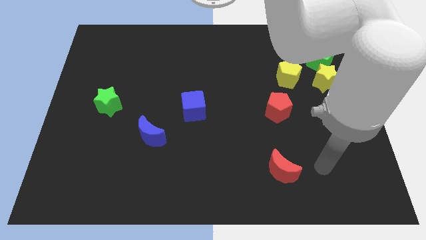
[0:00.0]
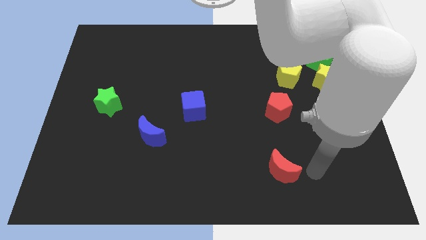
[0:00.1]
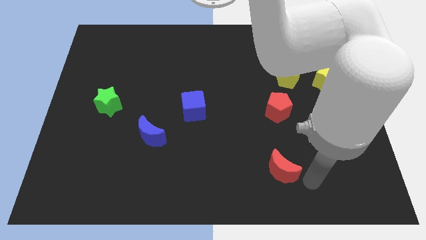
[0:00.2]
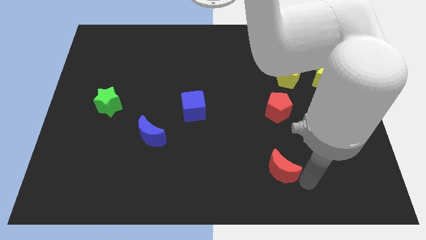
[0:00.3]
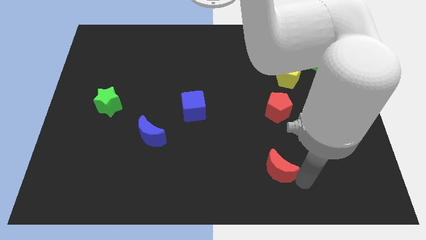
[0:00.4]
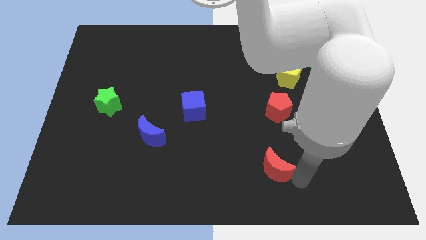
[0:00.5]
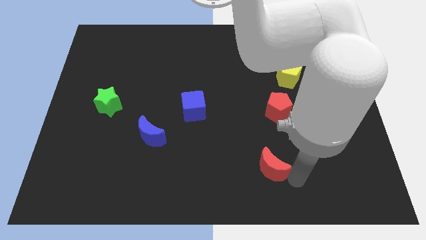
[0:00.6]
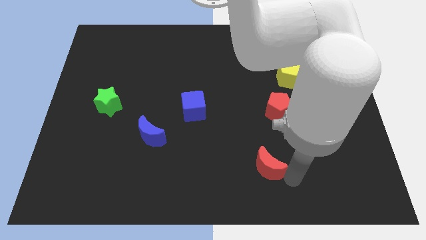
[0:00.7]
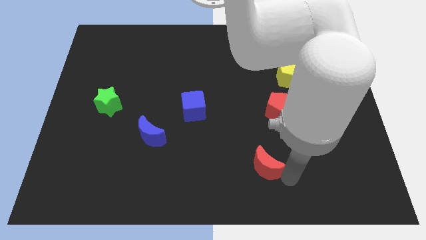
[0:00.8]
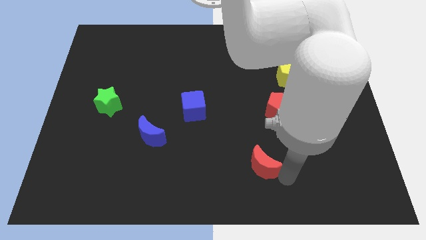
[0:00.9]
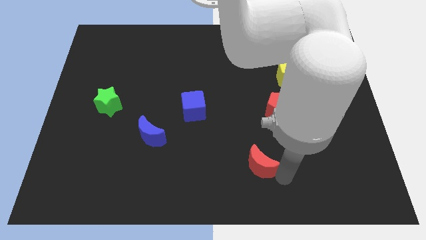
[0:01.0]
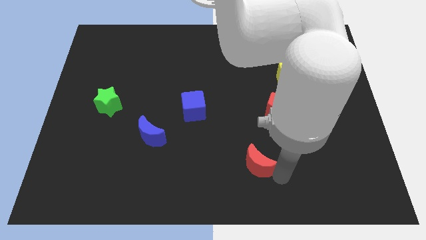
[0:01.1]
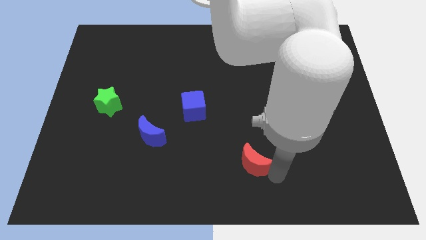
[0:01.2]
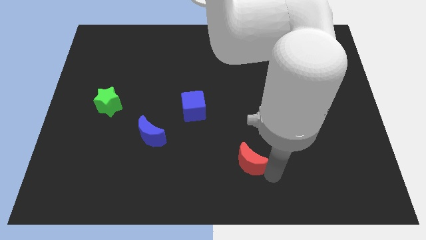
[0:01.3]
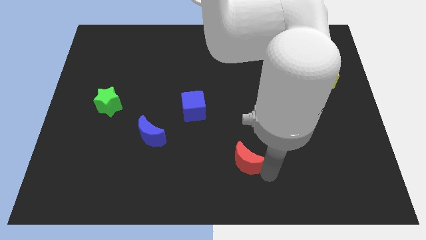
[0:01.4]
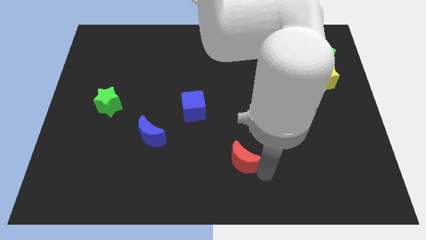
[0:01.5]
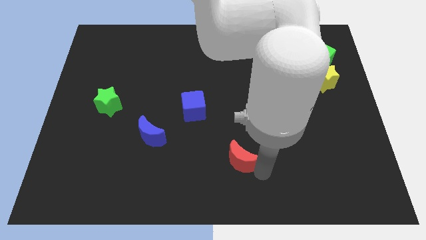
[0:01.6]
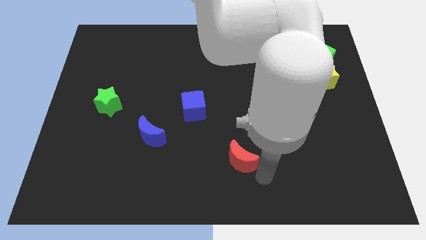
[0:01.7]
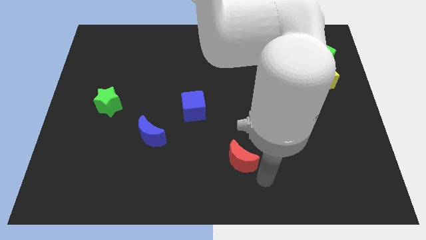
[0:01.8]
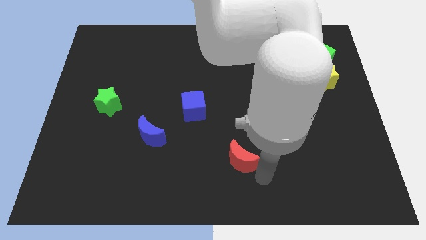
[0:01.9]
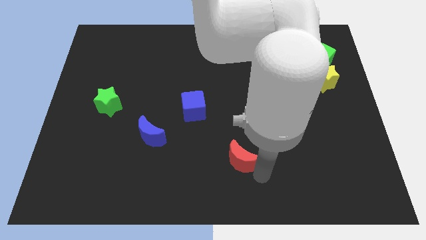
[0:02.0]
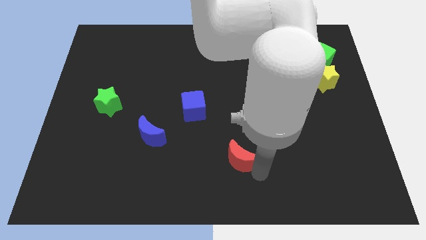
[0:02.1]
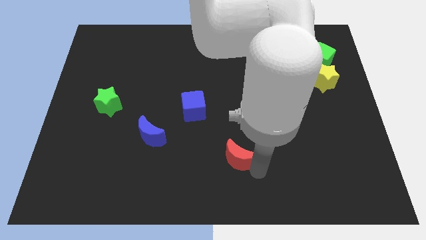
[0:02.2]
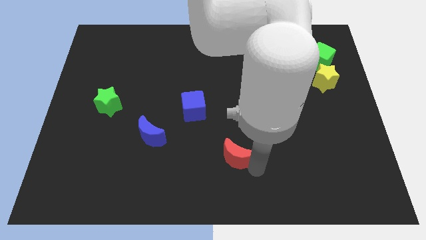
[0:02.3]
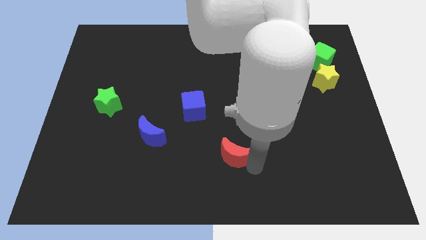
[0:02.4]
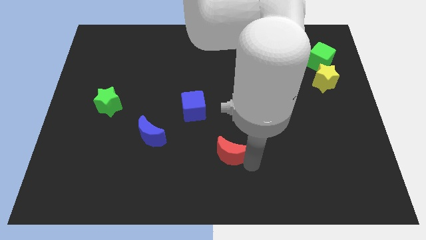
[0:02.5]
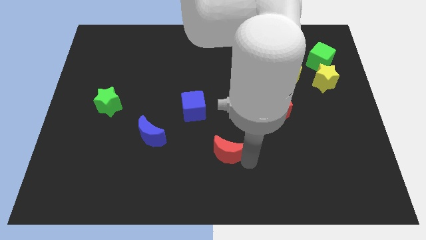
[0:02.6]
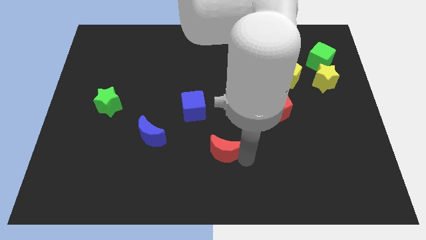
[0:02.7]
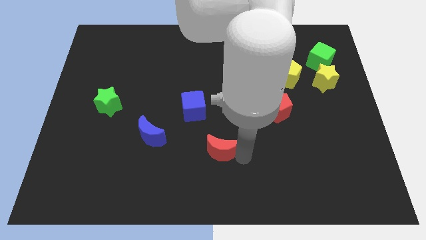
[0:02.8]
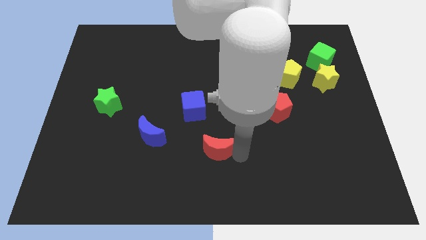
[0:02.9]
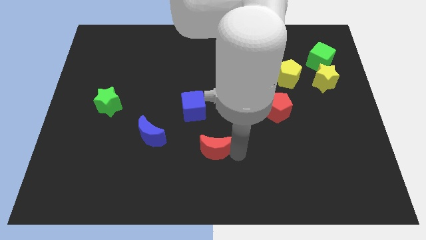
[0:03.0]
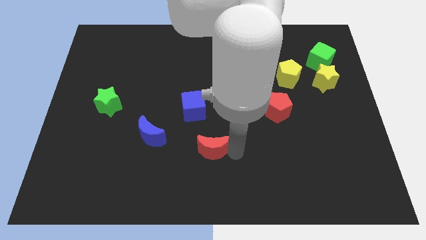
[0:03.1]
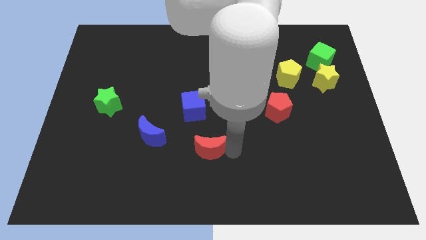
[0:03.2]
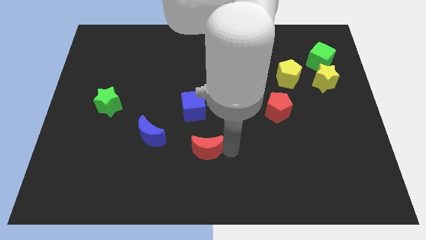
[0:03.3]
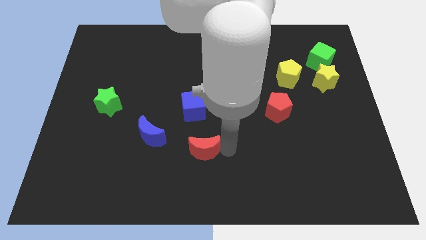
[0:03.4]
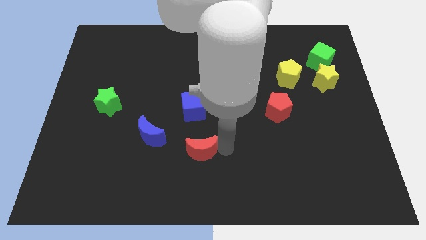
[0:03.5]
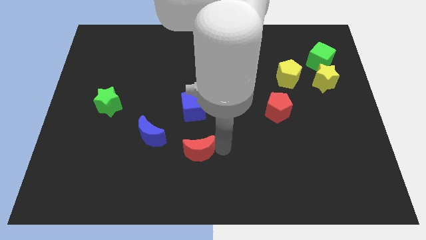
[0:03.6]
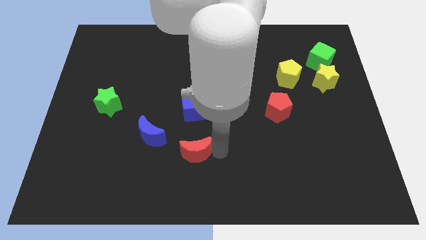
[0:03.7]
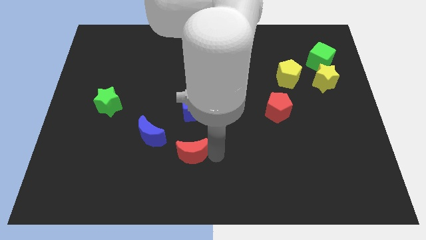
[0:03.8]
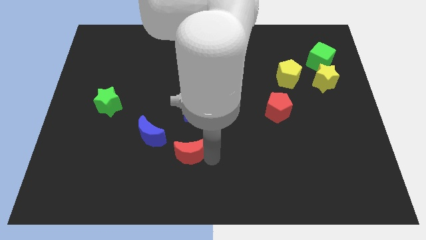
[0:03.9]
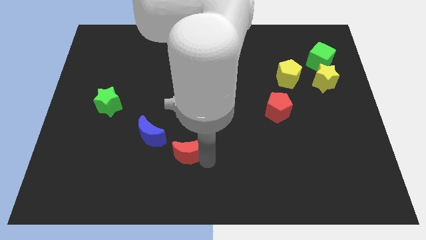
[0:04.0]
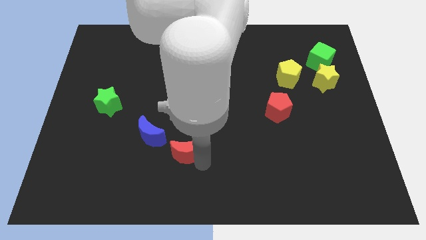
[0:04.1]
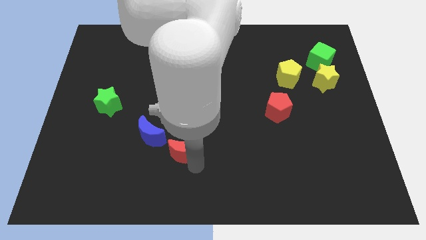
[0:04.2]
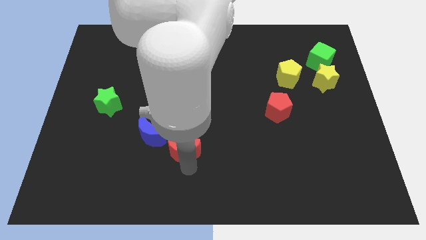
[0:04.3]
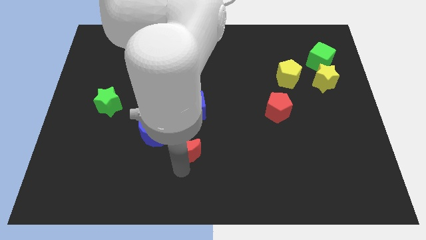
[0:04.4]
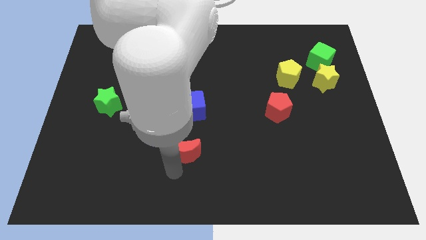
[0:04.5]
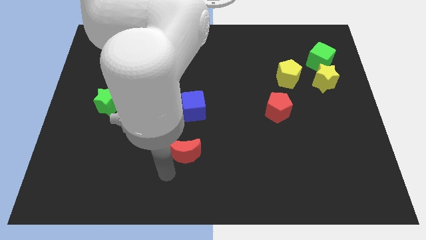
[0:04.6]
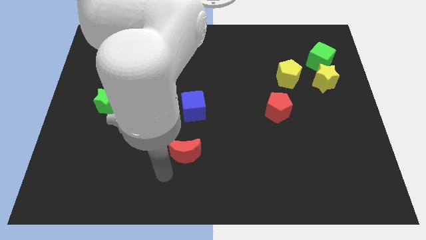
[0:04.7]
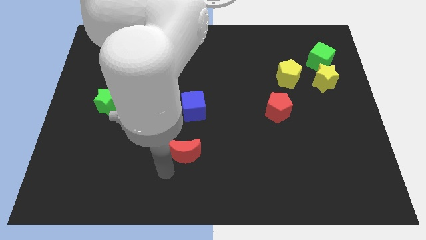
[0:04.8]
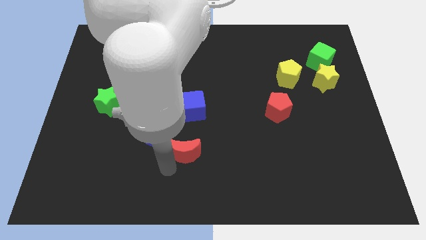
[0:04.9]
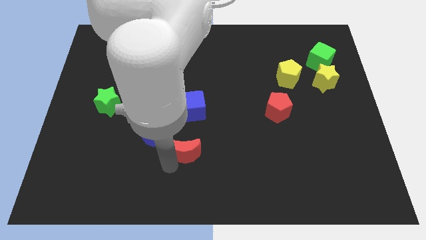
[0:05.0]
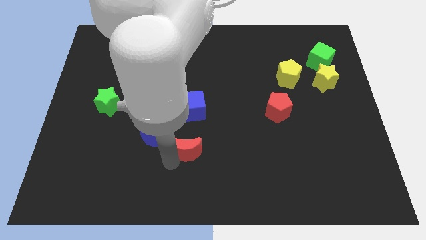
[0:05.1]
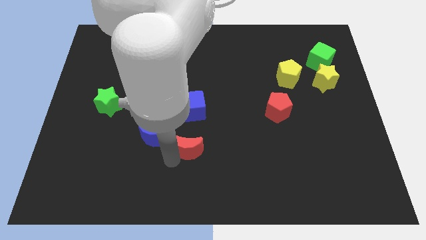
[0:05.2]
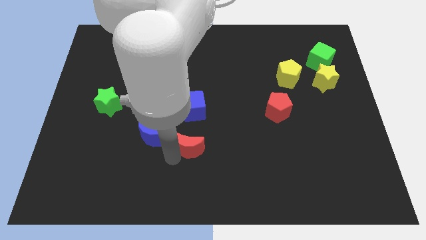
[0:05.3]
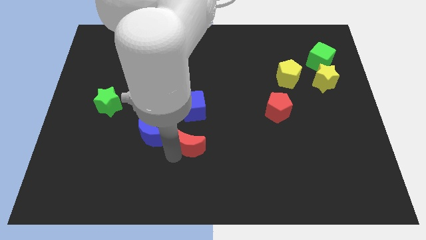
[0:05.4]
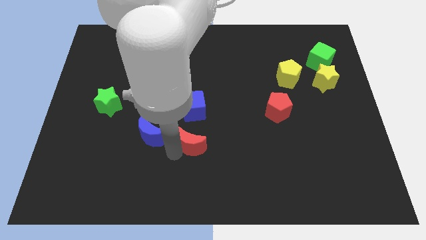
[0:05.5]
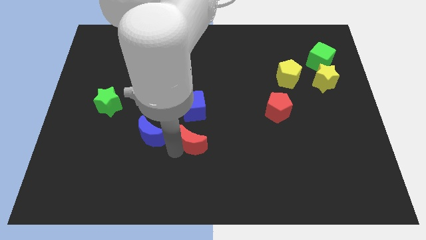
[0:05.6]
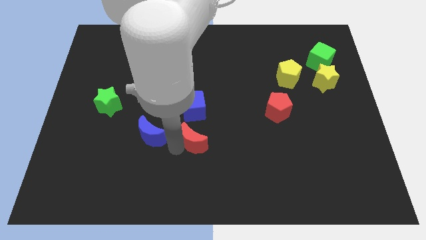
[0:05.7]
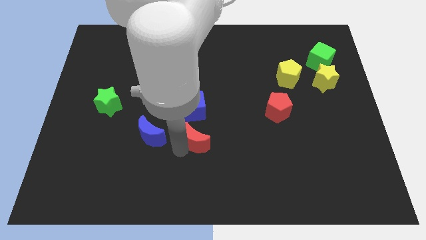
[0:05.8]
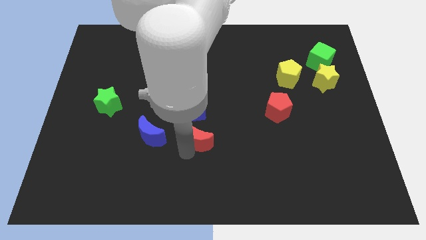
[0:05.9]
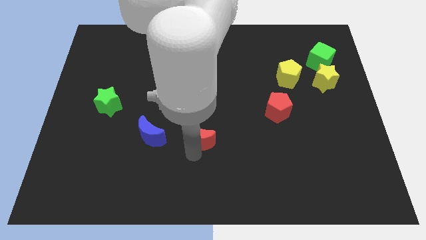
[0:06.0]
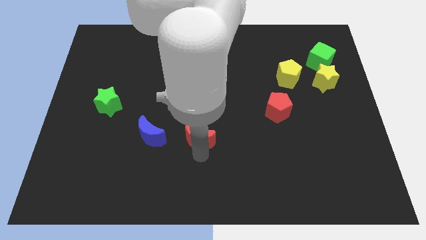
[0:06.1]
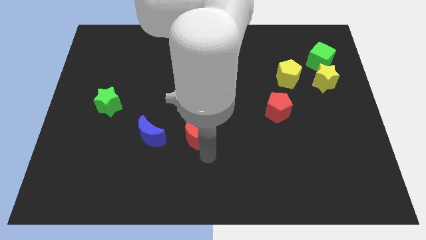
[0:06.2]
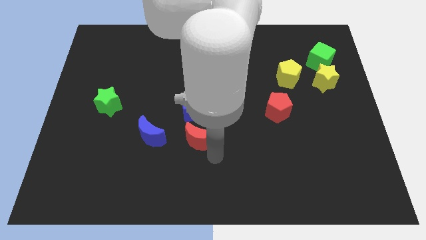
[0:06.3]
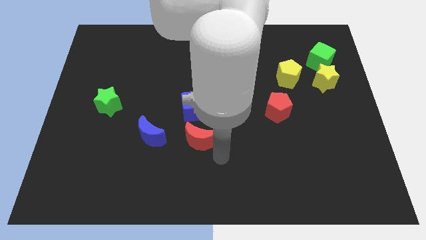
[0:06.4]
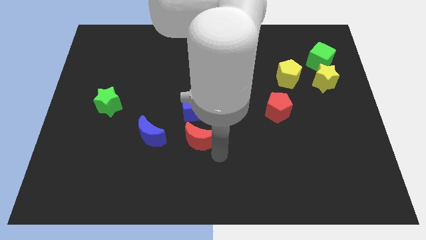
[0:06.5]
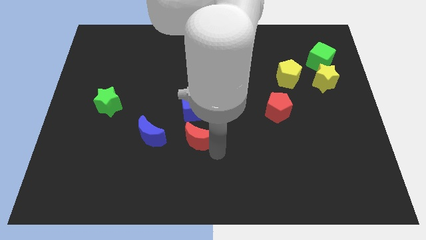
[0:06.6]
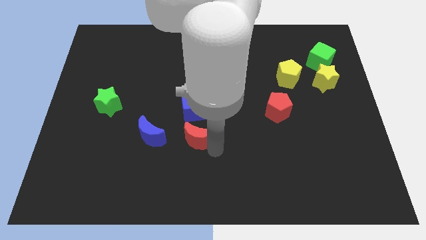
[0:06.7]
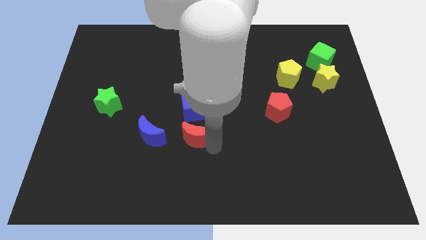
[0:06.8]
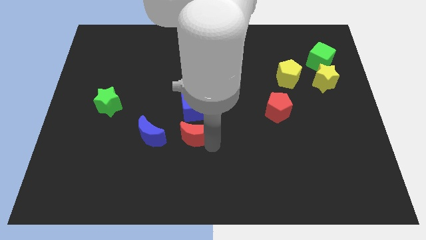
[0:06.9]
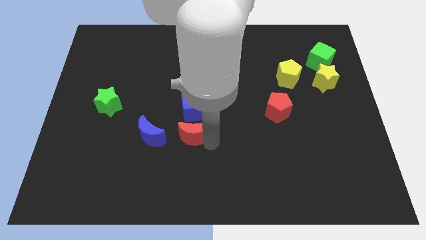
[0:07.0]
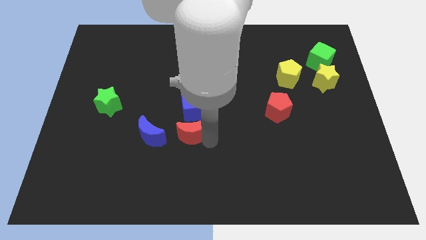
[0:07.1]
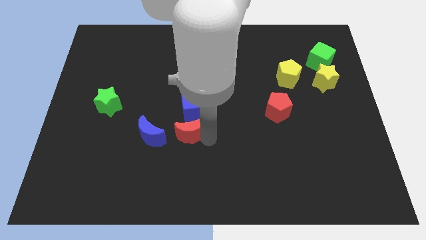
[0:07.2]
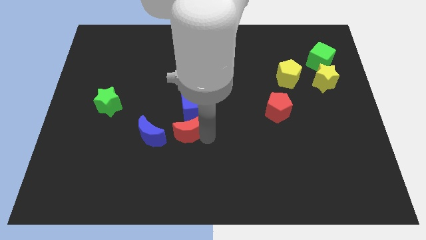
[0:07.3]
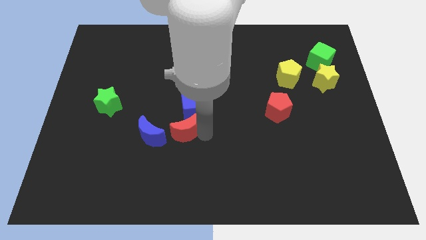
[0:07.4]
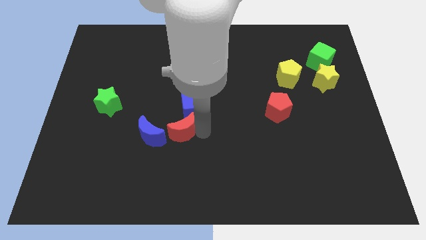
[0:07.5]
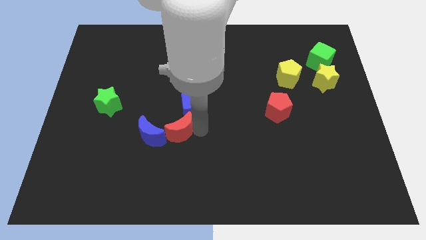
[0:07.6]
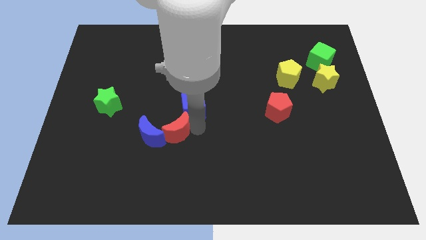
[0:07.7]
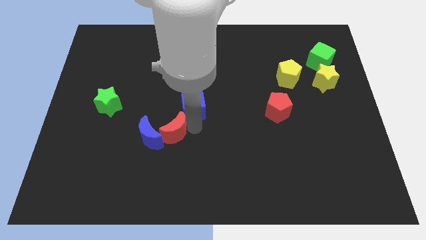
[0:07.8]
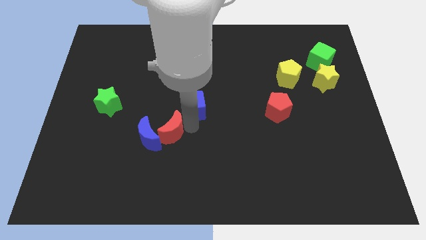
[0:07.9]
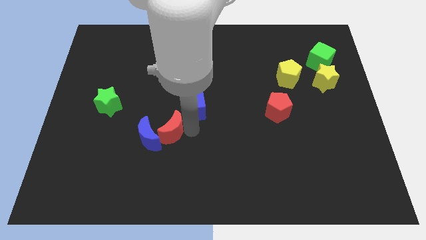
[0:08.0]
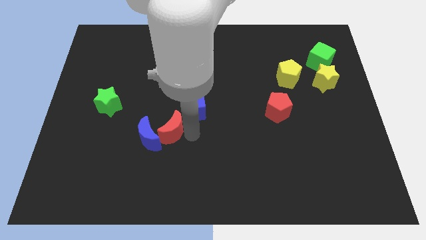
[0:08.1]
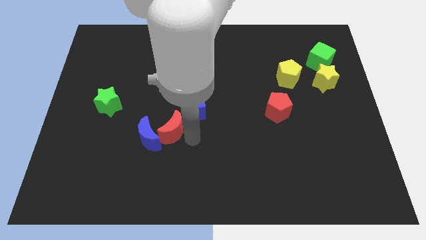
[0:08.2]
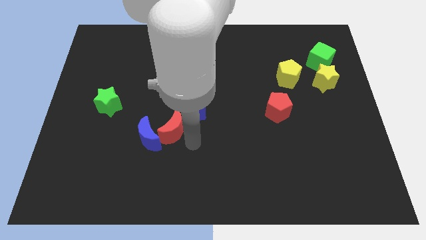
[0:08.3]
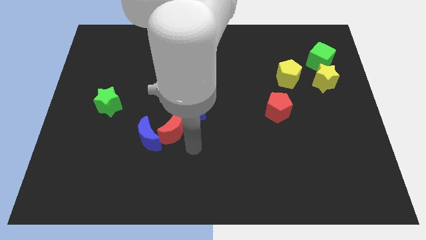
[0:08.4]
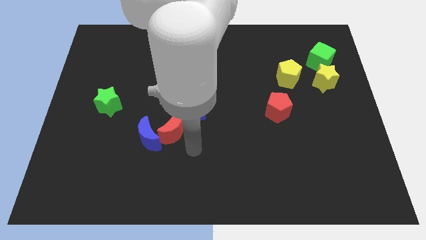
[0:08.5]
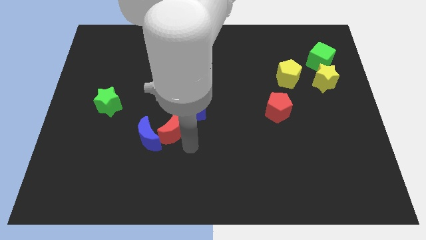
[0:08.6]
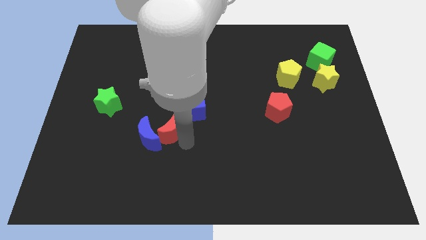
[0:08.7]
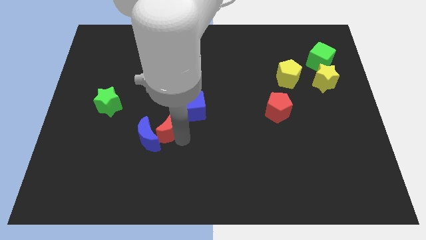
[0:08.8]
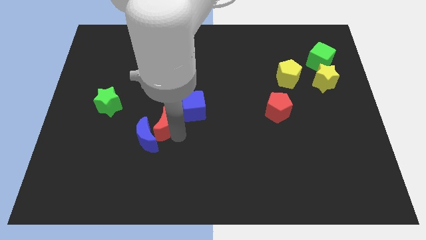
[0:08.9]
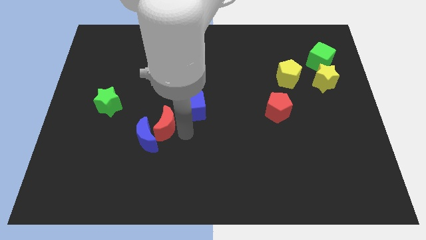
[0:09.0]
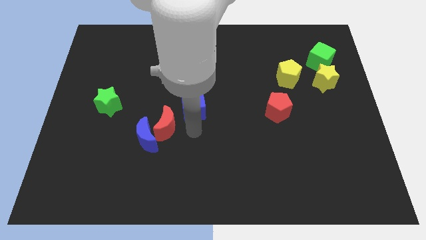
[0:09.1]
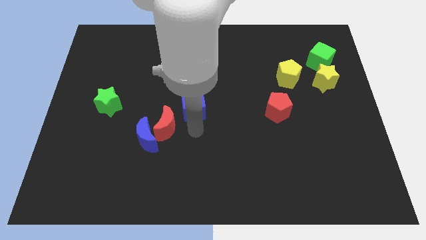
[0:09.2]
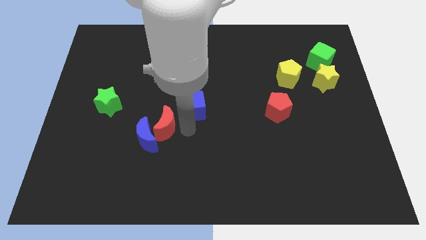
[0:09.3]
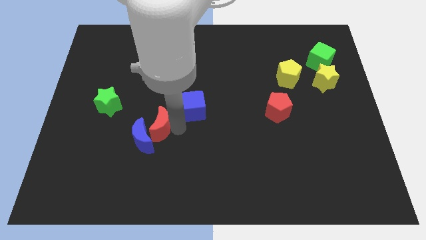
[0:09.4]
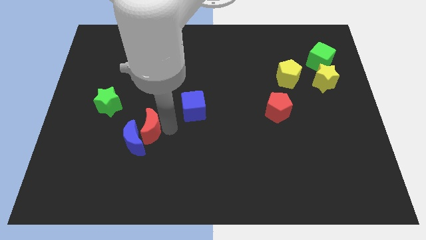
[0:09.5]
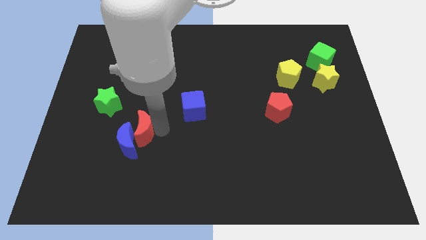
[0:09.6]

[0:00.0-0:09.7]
move the red moon to the bottom right side of the green star
